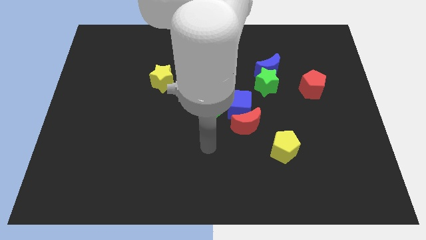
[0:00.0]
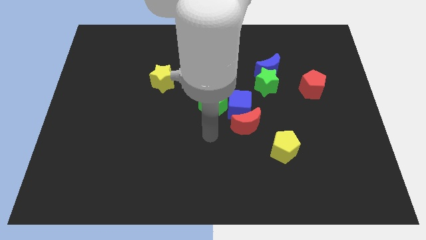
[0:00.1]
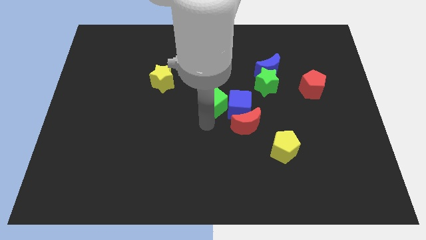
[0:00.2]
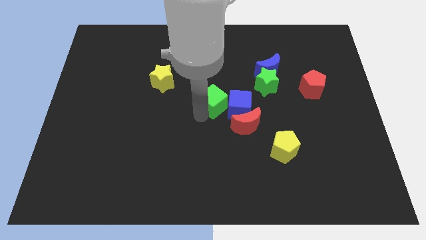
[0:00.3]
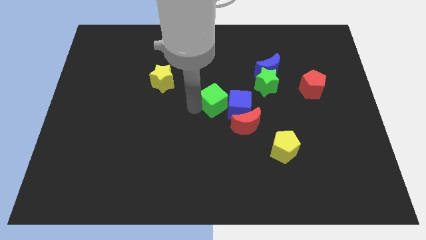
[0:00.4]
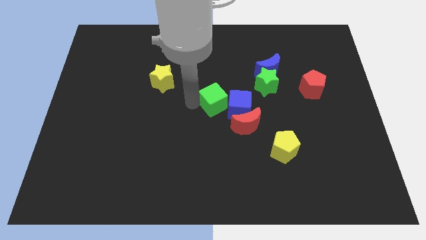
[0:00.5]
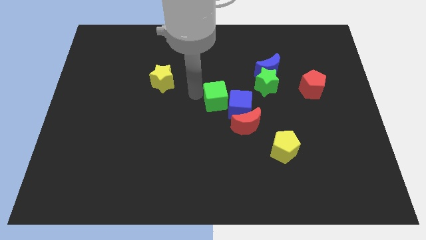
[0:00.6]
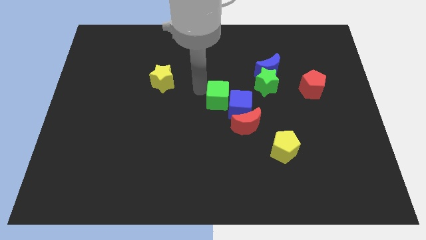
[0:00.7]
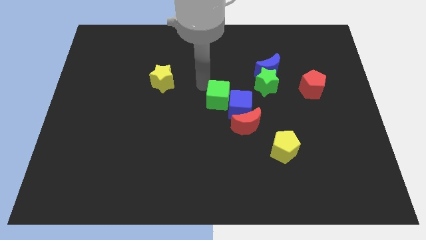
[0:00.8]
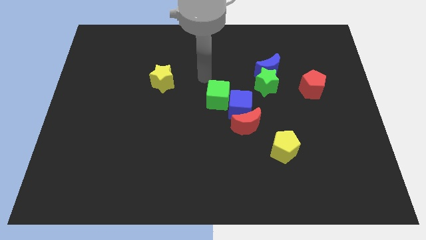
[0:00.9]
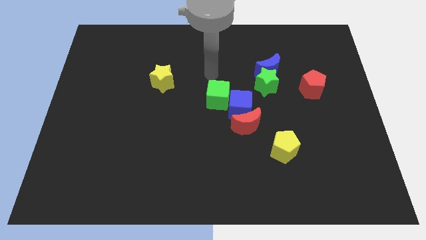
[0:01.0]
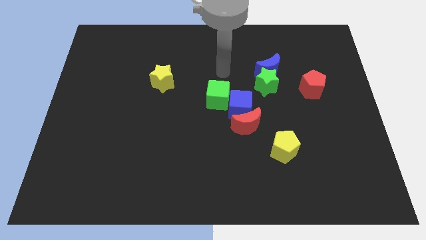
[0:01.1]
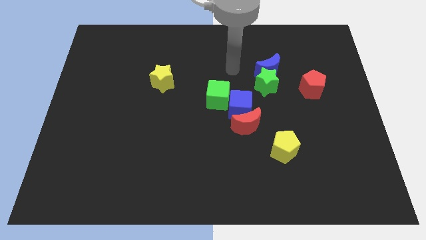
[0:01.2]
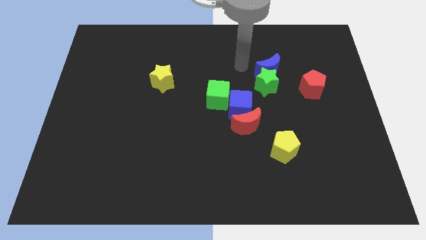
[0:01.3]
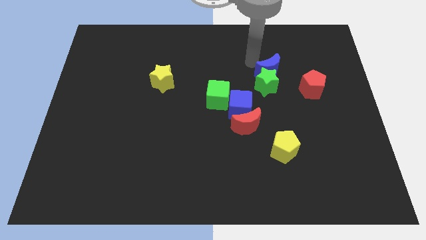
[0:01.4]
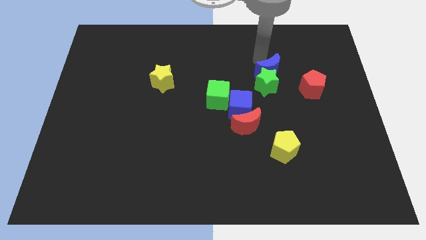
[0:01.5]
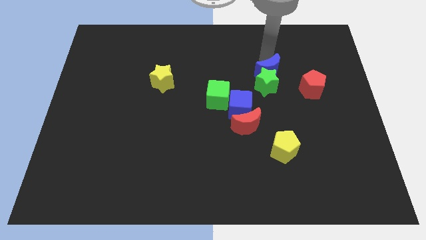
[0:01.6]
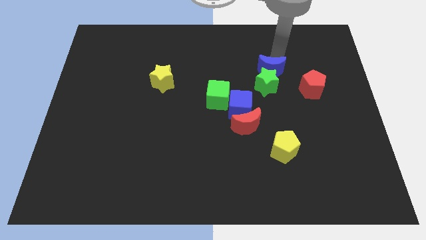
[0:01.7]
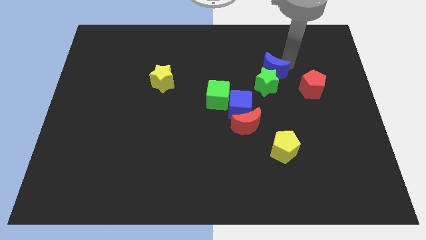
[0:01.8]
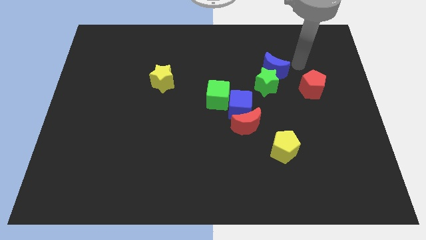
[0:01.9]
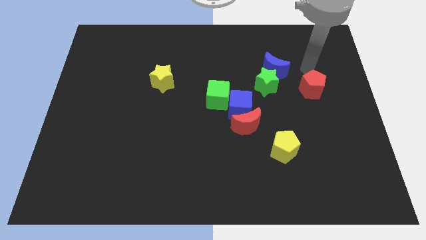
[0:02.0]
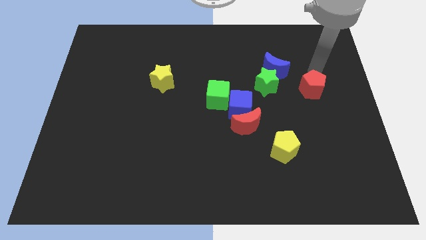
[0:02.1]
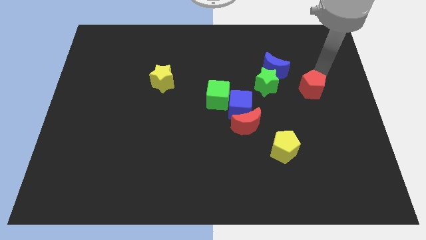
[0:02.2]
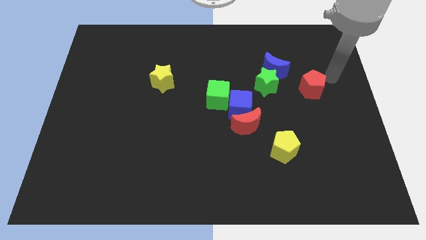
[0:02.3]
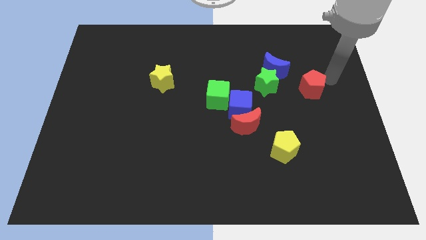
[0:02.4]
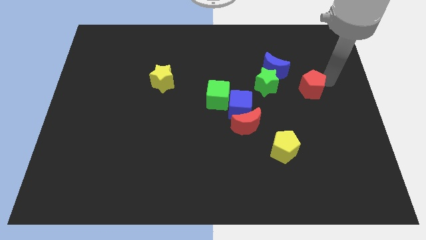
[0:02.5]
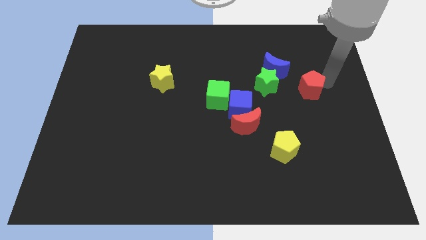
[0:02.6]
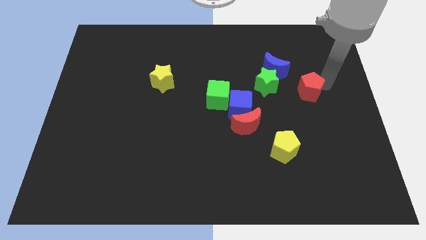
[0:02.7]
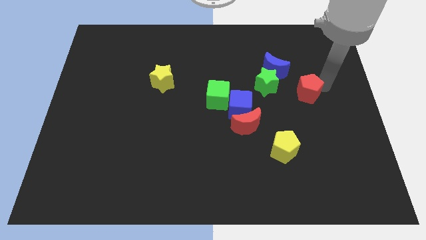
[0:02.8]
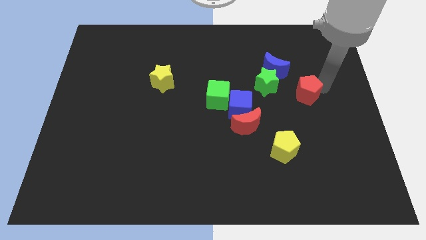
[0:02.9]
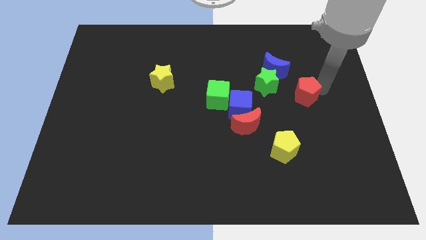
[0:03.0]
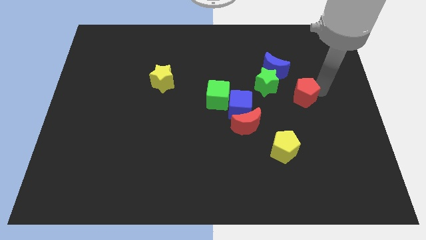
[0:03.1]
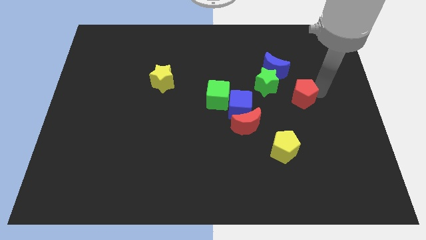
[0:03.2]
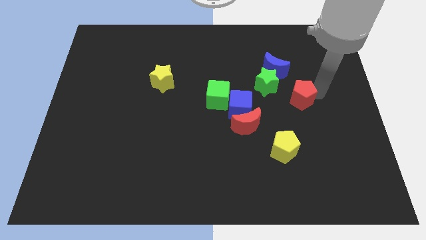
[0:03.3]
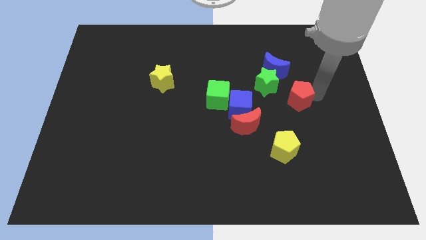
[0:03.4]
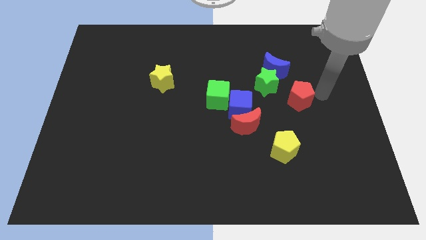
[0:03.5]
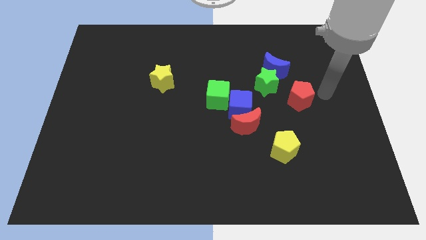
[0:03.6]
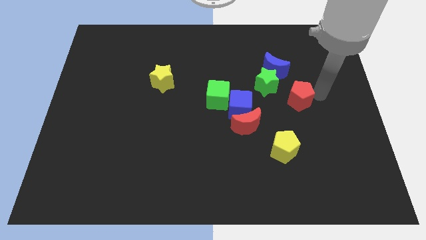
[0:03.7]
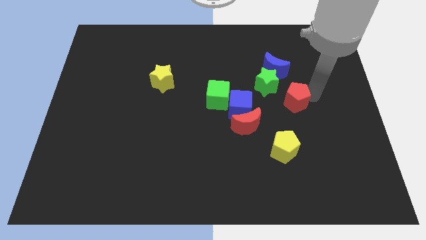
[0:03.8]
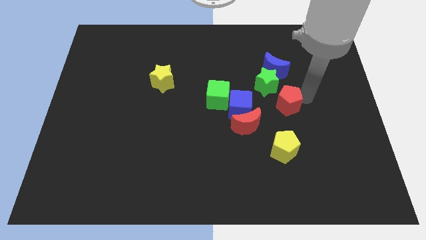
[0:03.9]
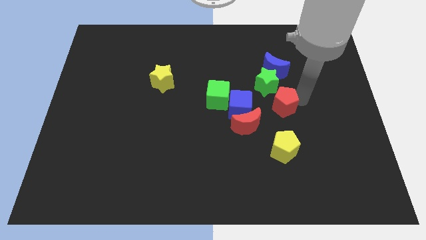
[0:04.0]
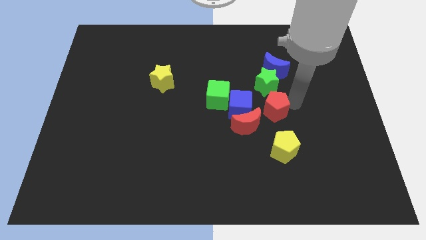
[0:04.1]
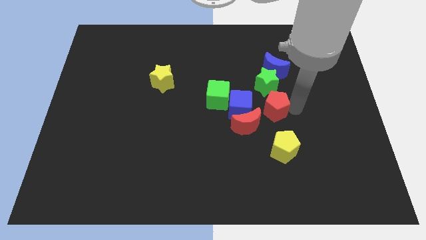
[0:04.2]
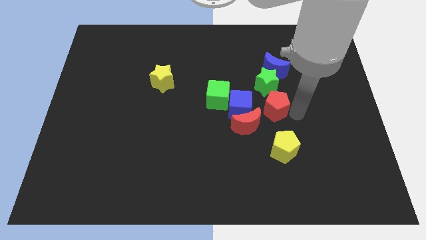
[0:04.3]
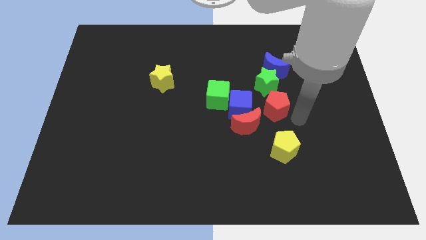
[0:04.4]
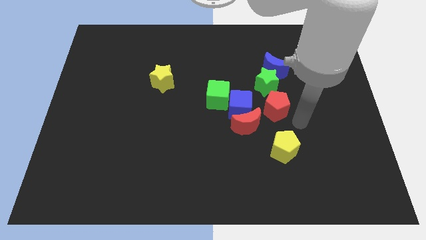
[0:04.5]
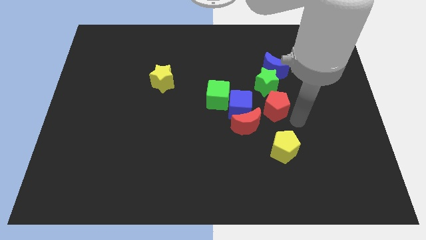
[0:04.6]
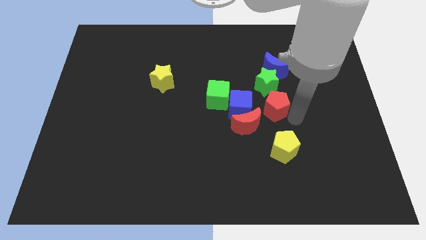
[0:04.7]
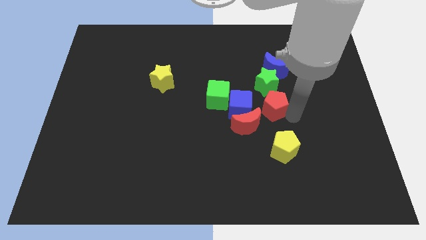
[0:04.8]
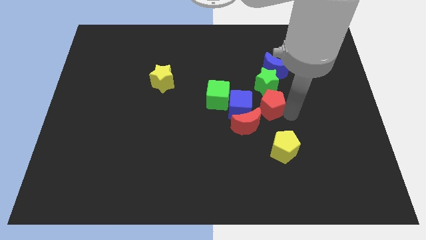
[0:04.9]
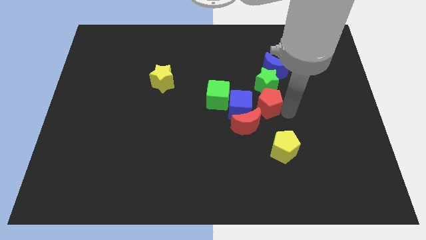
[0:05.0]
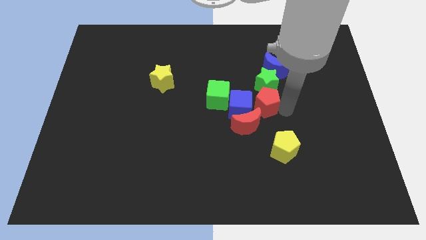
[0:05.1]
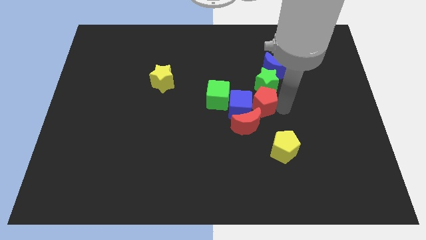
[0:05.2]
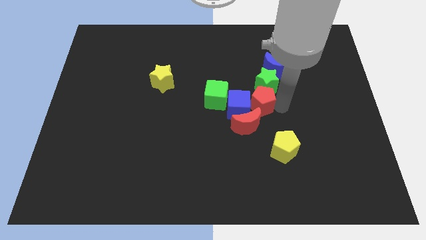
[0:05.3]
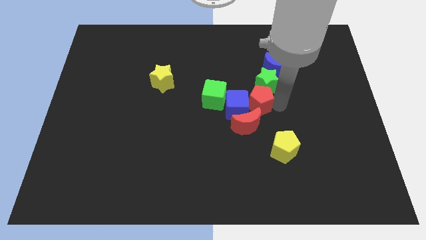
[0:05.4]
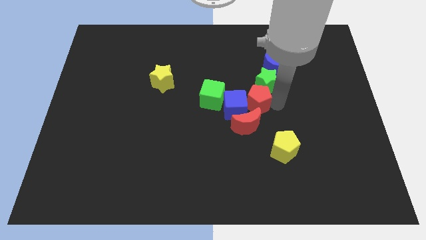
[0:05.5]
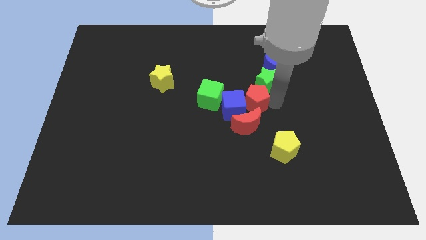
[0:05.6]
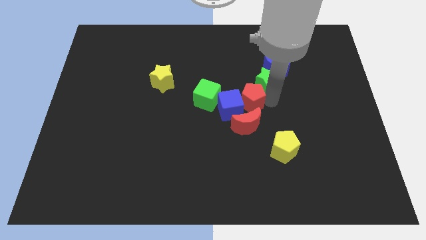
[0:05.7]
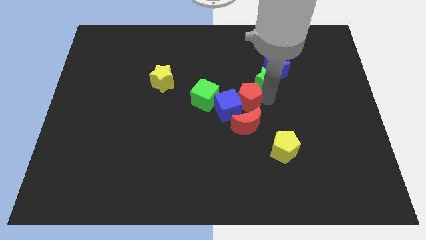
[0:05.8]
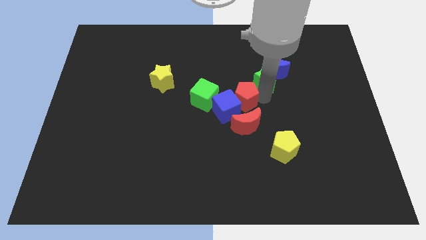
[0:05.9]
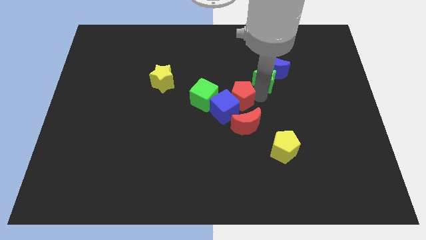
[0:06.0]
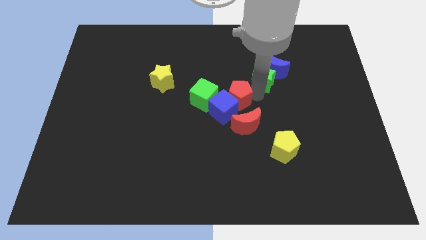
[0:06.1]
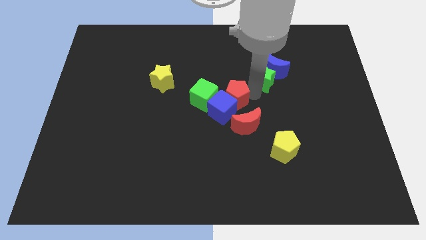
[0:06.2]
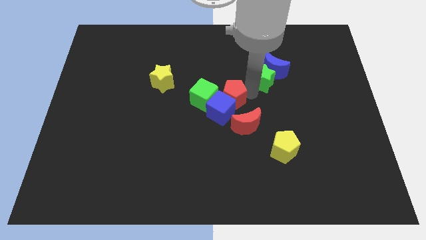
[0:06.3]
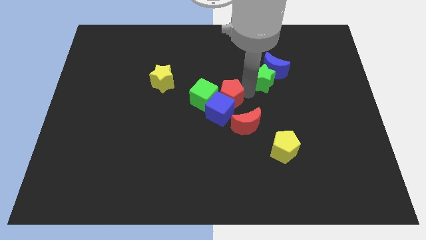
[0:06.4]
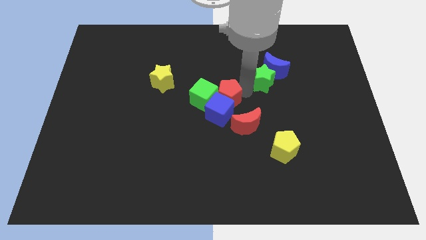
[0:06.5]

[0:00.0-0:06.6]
push the red pentagon left

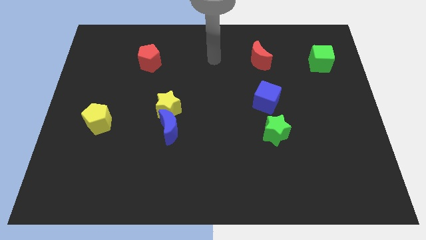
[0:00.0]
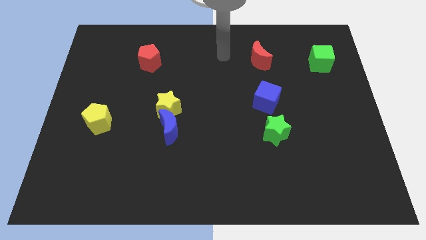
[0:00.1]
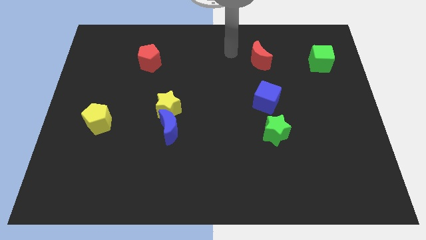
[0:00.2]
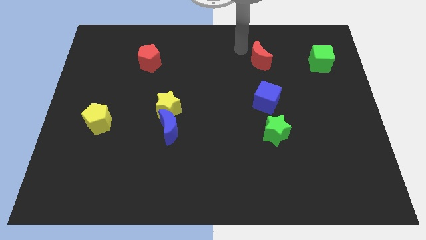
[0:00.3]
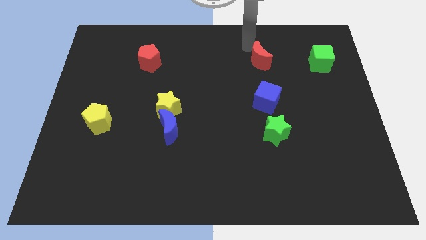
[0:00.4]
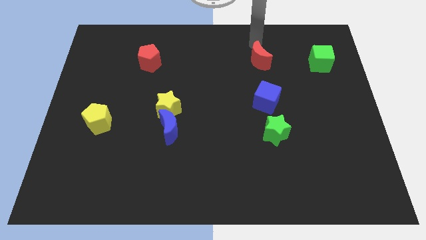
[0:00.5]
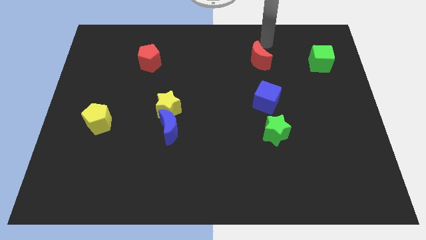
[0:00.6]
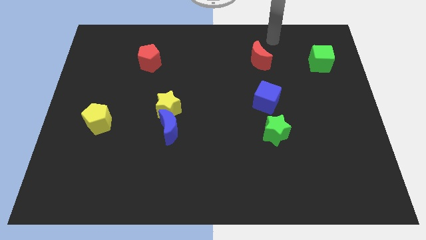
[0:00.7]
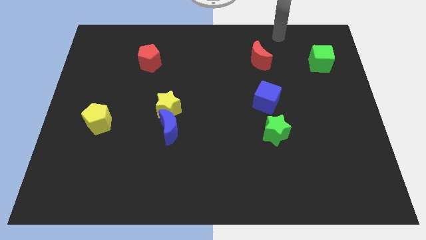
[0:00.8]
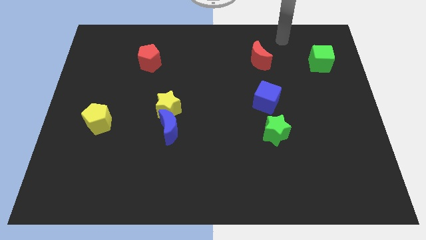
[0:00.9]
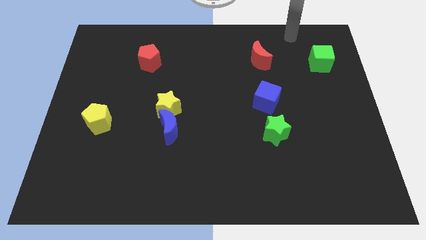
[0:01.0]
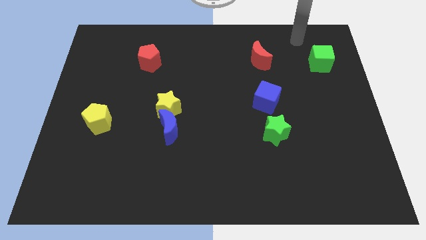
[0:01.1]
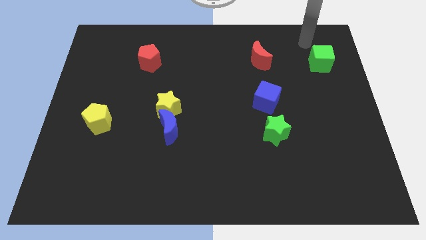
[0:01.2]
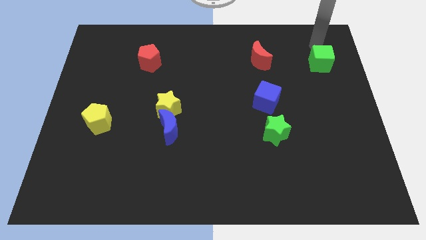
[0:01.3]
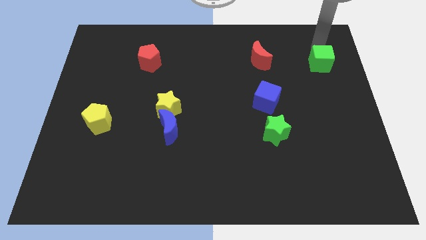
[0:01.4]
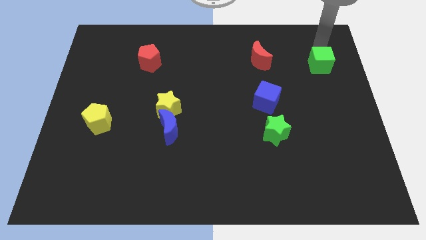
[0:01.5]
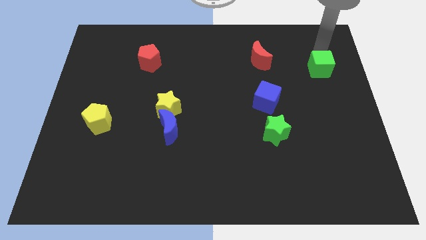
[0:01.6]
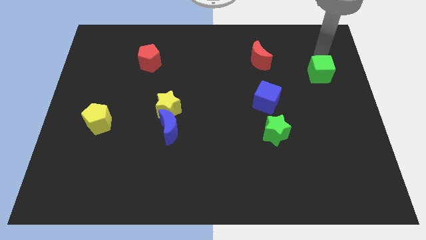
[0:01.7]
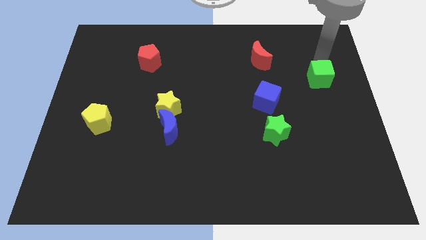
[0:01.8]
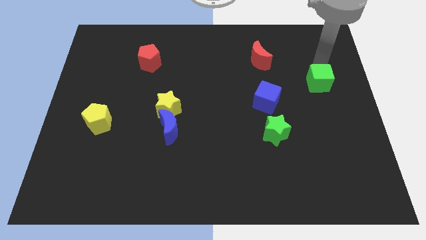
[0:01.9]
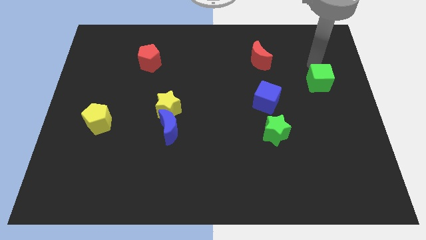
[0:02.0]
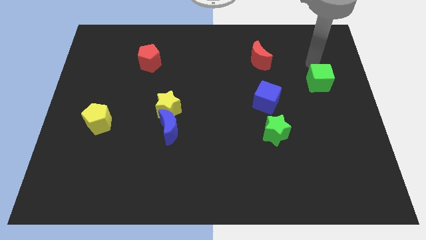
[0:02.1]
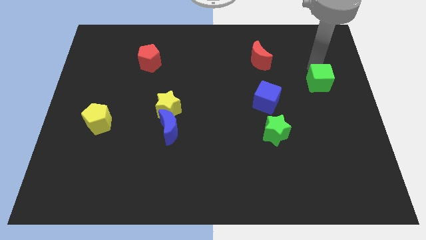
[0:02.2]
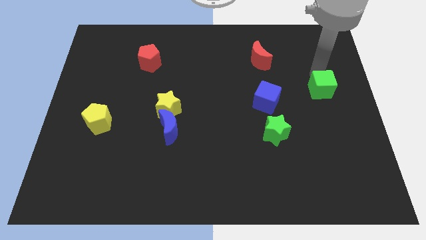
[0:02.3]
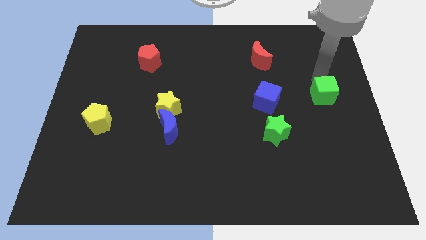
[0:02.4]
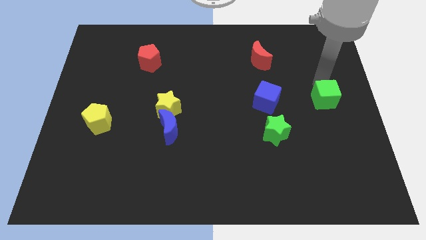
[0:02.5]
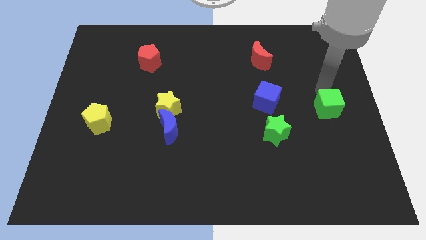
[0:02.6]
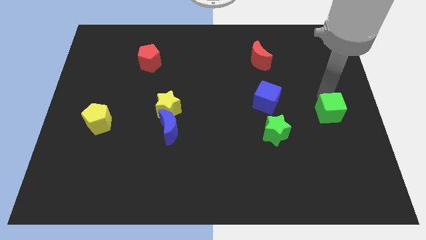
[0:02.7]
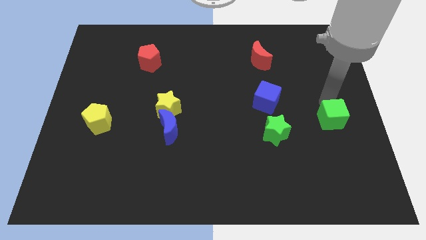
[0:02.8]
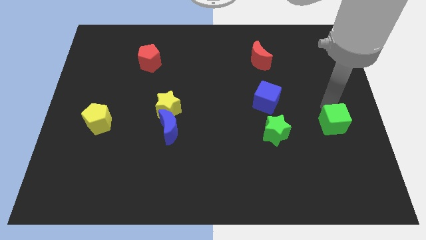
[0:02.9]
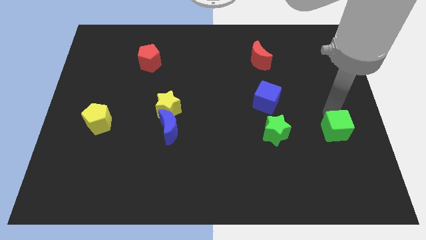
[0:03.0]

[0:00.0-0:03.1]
move the green cube downwards
